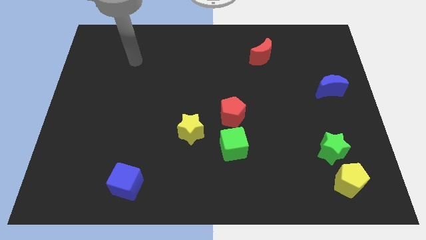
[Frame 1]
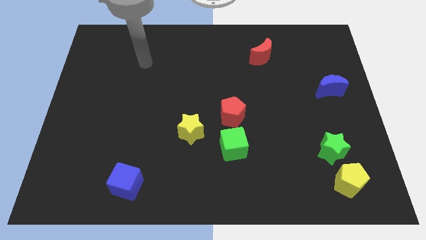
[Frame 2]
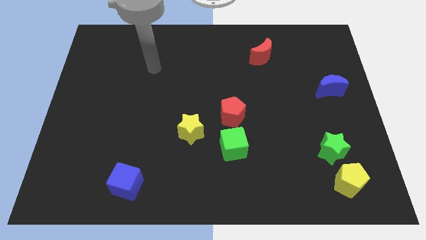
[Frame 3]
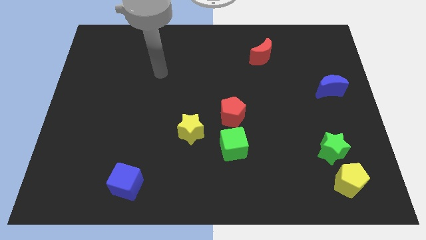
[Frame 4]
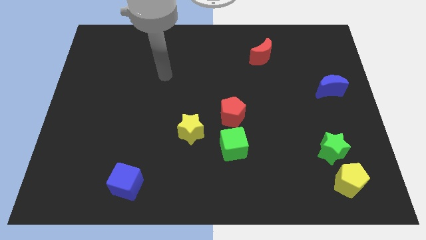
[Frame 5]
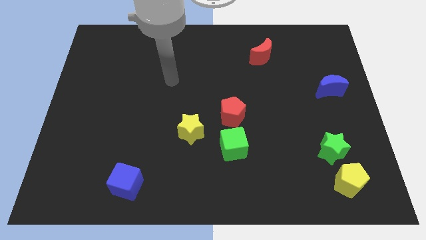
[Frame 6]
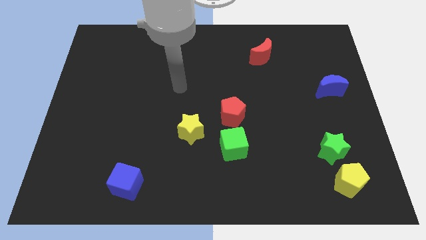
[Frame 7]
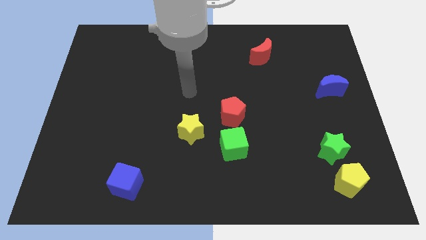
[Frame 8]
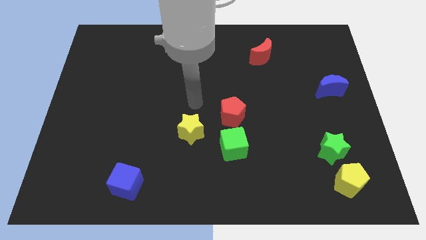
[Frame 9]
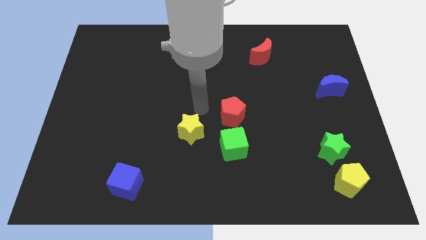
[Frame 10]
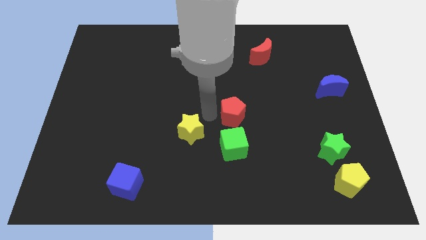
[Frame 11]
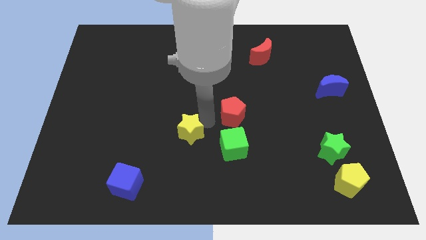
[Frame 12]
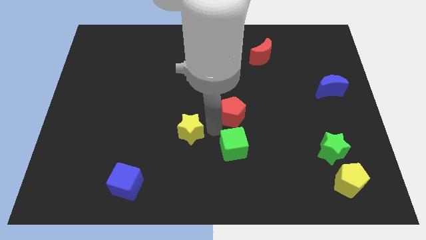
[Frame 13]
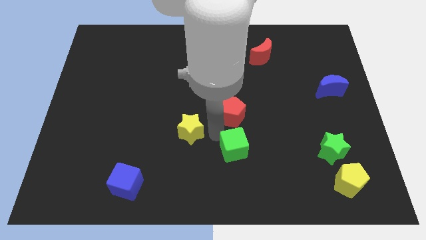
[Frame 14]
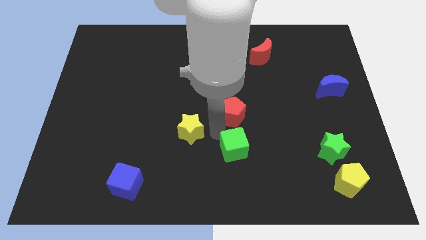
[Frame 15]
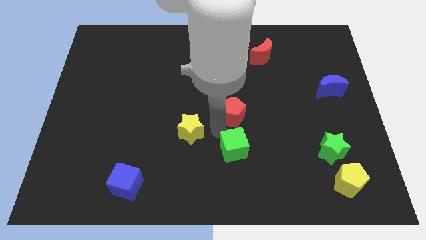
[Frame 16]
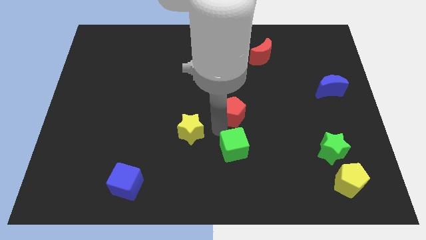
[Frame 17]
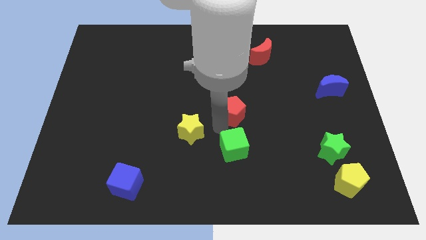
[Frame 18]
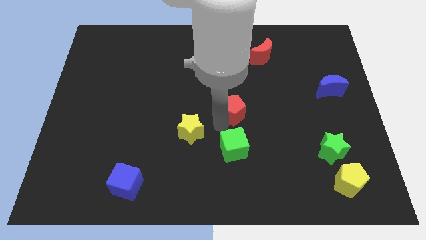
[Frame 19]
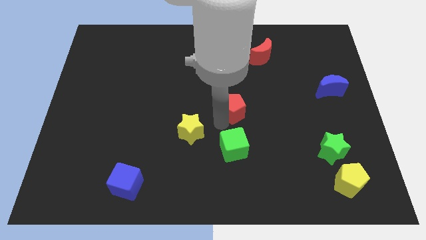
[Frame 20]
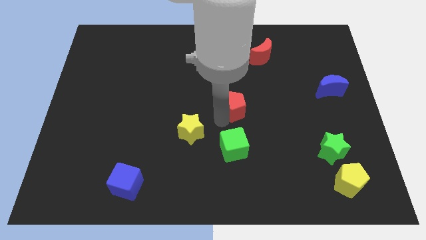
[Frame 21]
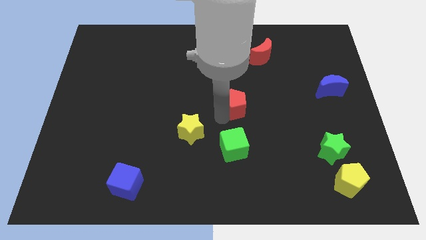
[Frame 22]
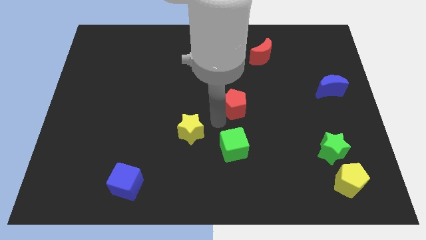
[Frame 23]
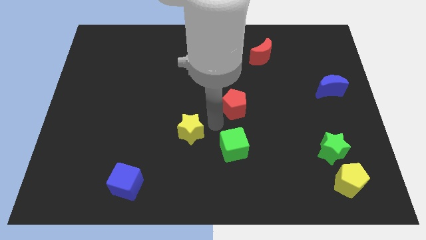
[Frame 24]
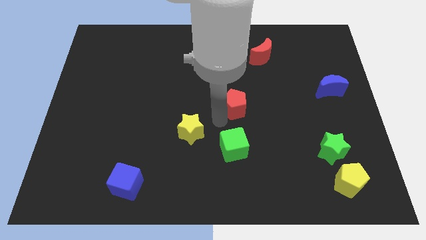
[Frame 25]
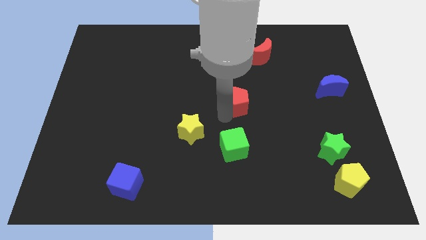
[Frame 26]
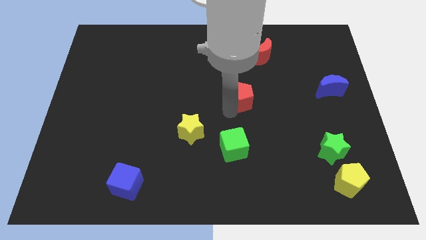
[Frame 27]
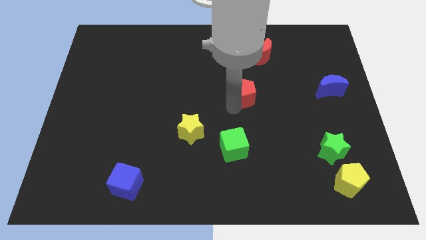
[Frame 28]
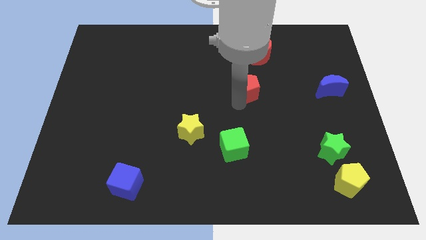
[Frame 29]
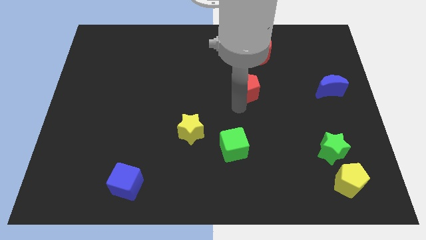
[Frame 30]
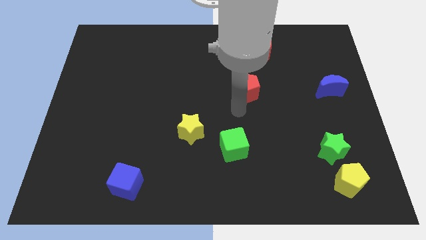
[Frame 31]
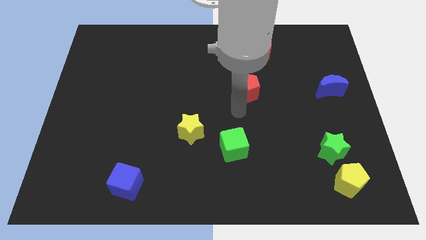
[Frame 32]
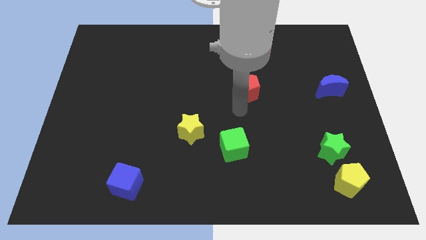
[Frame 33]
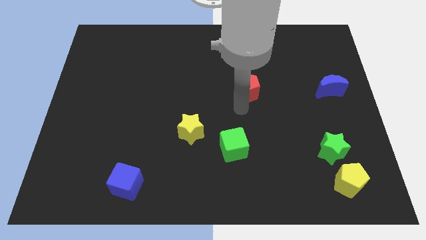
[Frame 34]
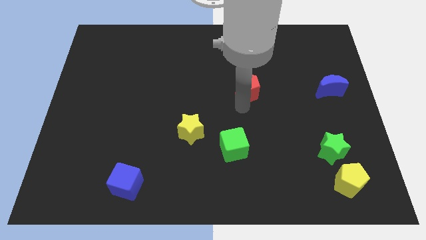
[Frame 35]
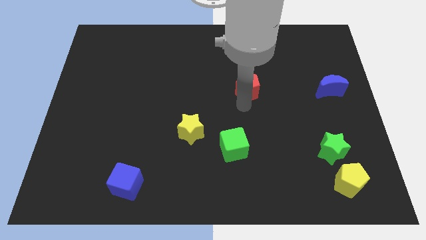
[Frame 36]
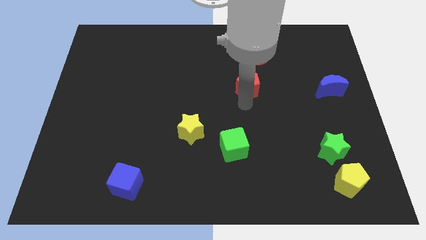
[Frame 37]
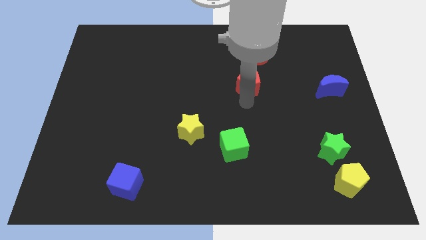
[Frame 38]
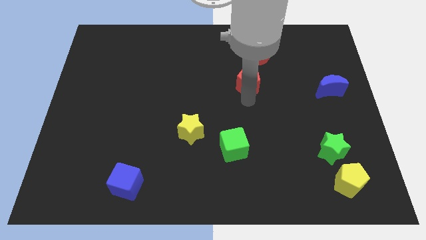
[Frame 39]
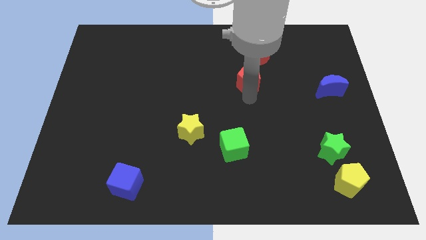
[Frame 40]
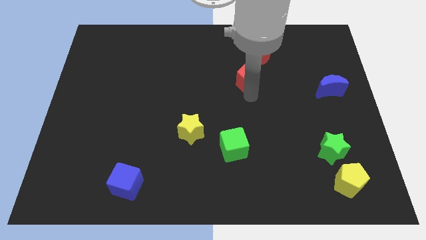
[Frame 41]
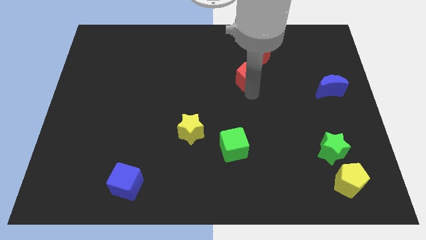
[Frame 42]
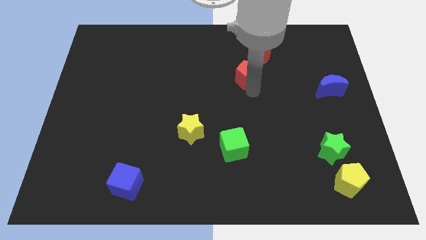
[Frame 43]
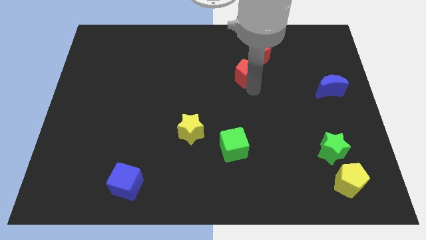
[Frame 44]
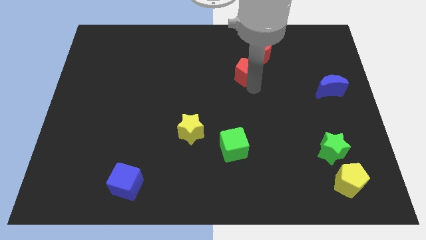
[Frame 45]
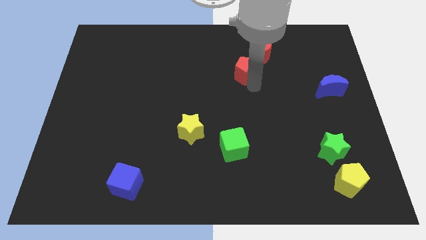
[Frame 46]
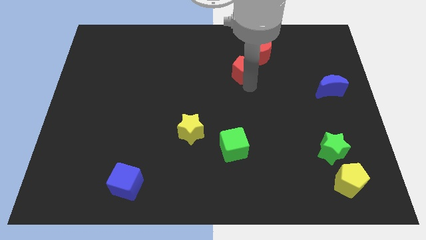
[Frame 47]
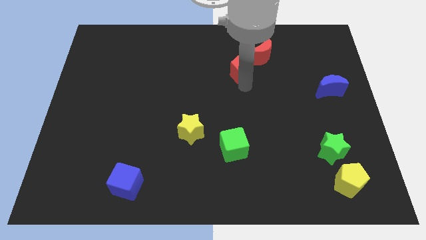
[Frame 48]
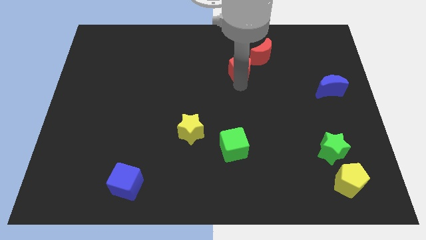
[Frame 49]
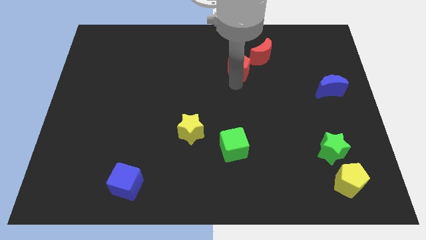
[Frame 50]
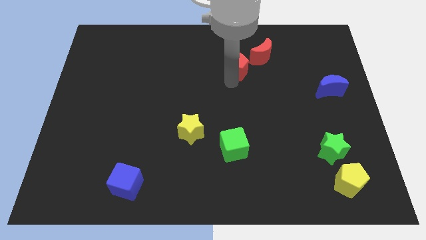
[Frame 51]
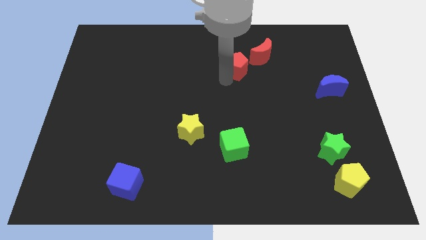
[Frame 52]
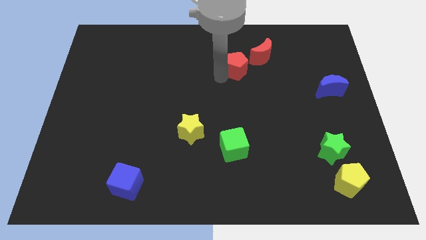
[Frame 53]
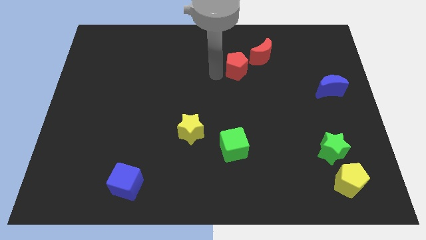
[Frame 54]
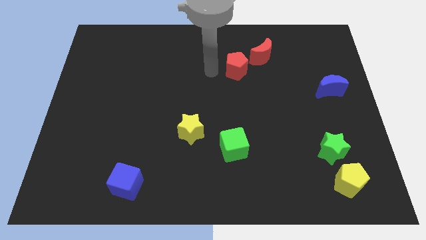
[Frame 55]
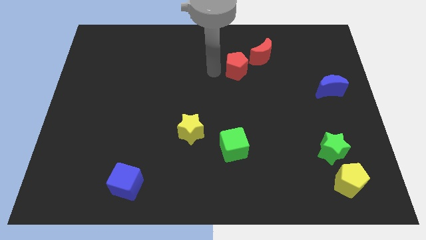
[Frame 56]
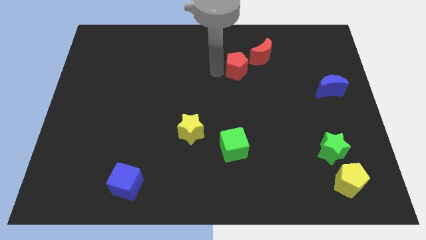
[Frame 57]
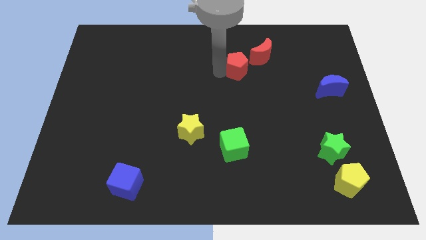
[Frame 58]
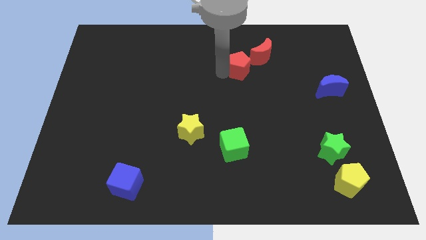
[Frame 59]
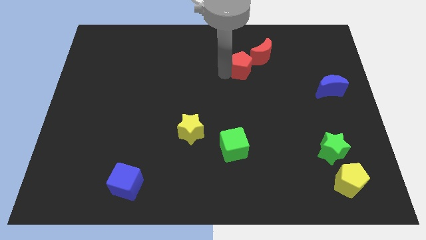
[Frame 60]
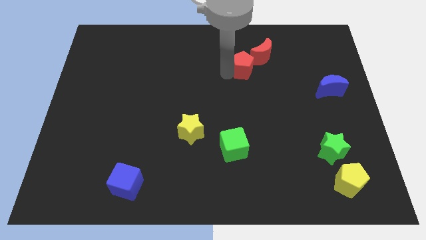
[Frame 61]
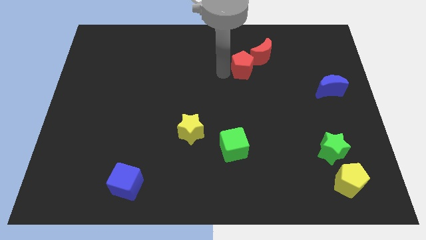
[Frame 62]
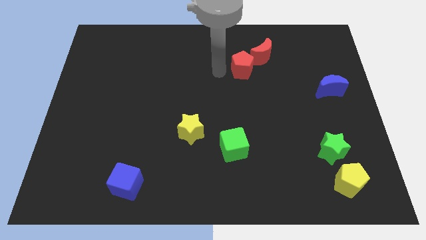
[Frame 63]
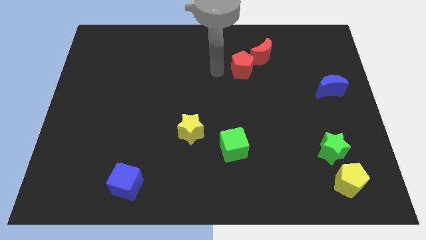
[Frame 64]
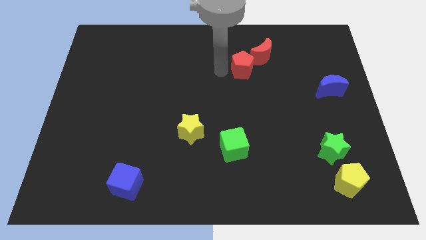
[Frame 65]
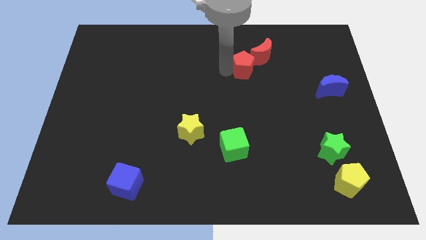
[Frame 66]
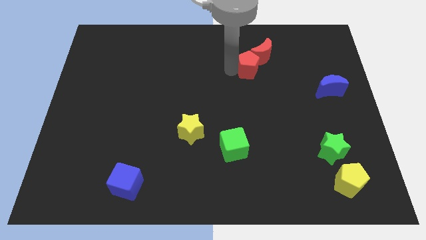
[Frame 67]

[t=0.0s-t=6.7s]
push the red pentagon towards the red moon
